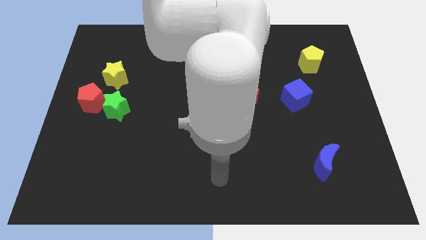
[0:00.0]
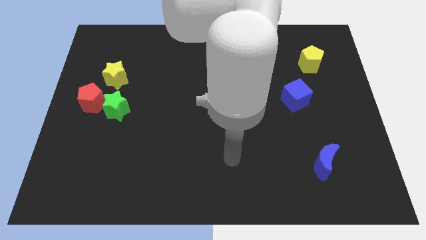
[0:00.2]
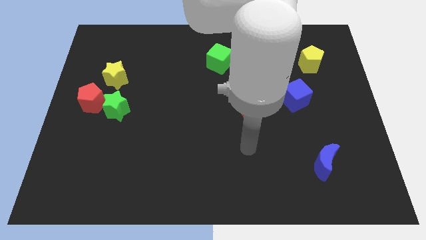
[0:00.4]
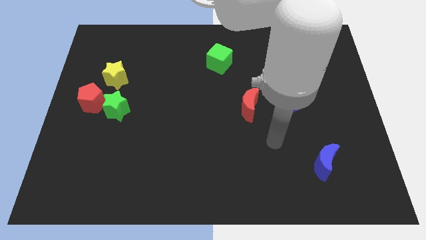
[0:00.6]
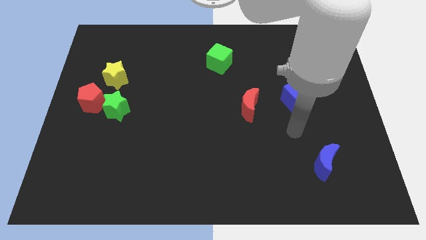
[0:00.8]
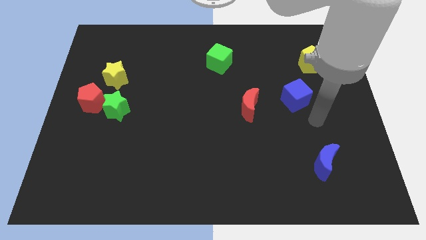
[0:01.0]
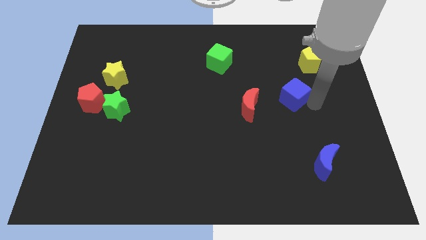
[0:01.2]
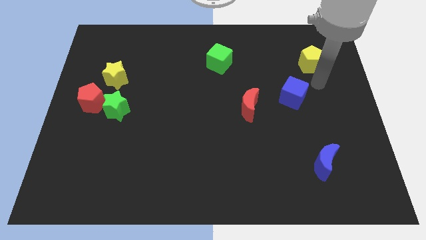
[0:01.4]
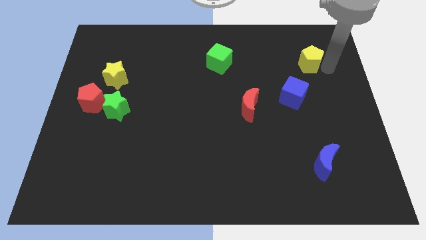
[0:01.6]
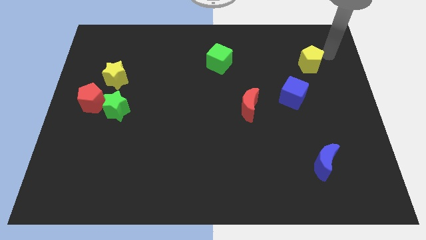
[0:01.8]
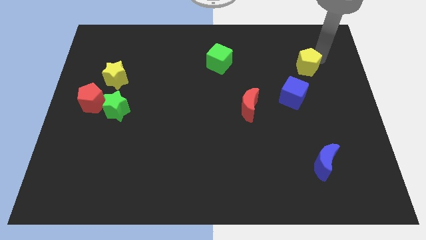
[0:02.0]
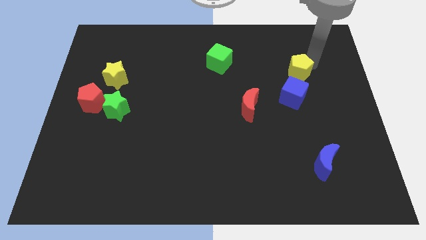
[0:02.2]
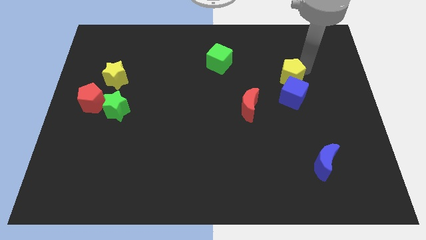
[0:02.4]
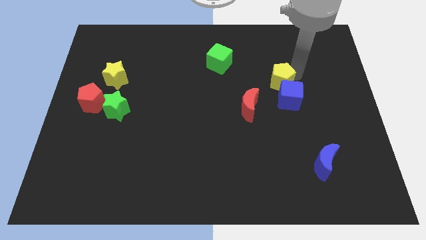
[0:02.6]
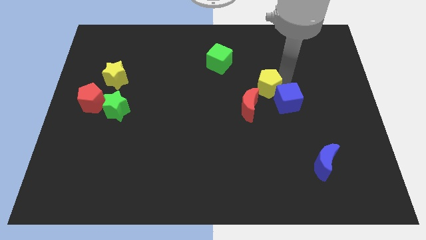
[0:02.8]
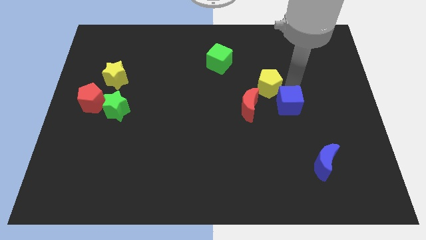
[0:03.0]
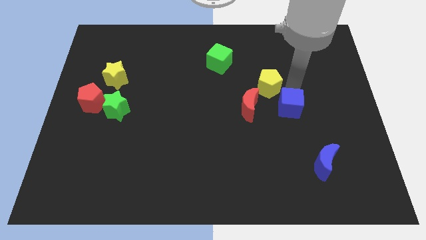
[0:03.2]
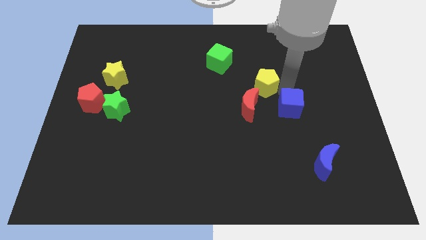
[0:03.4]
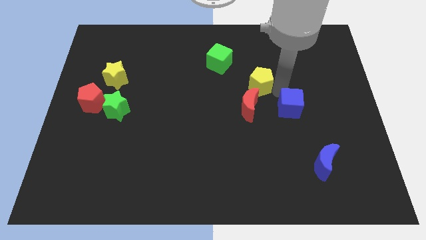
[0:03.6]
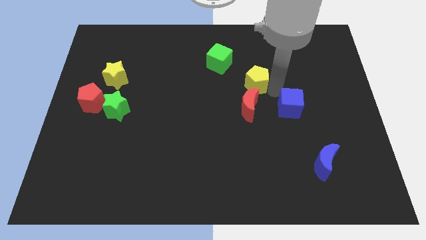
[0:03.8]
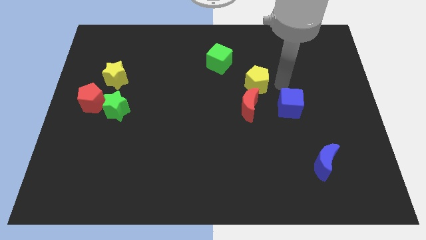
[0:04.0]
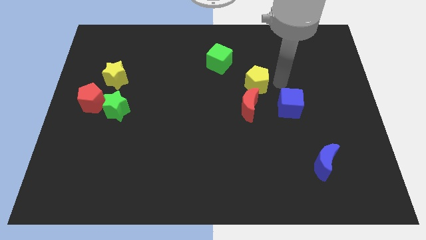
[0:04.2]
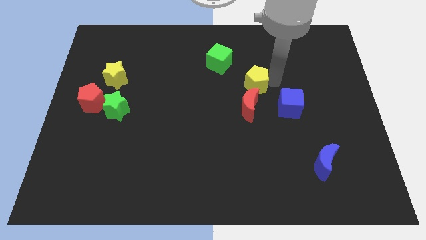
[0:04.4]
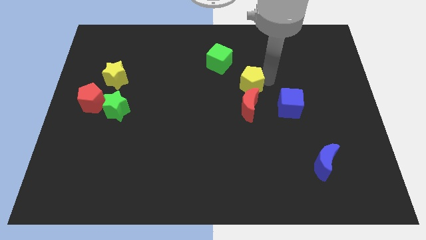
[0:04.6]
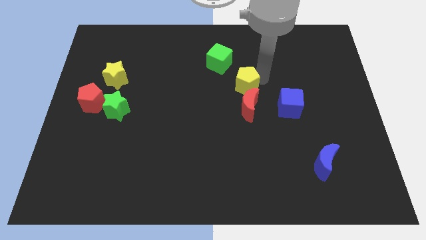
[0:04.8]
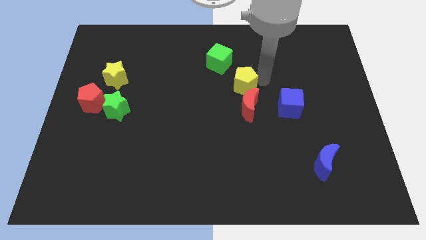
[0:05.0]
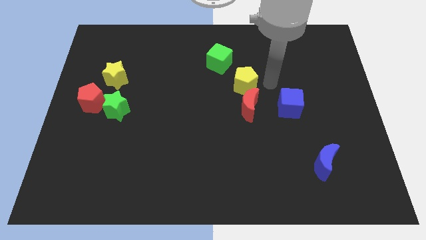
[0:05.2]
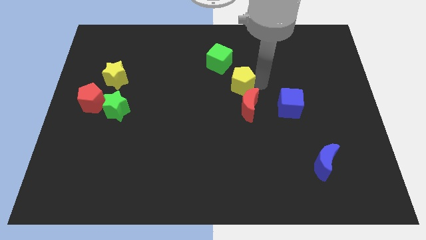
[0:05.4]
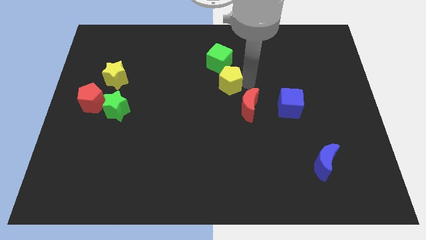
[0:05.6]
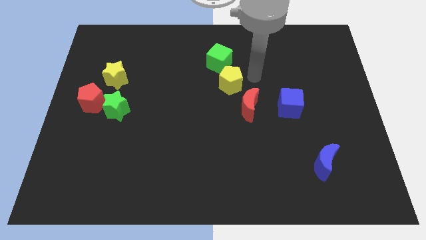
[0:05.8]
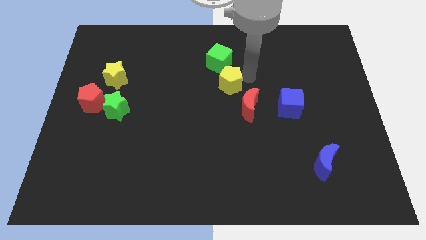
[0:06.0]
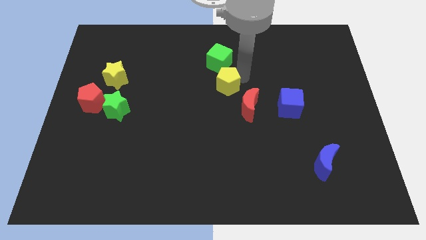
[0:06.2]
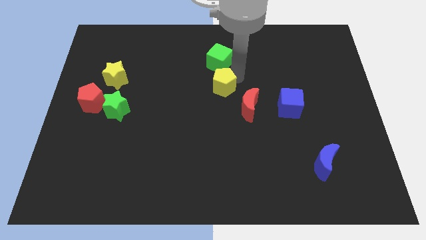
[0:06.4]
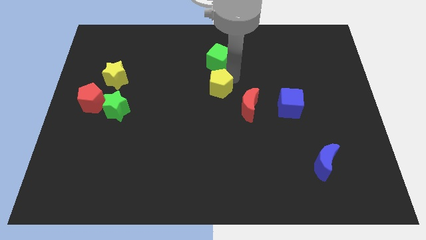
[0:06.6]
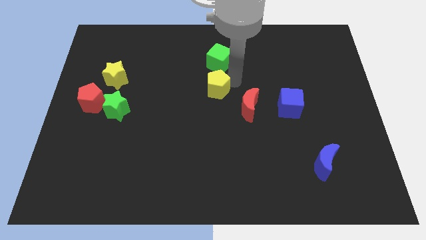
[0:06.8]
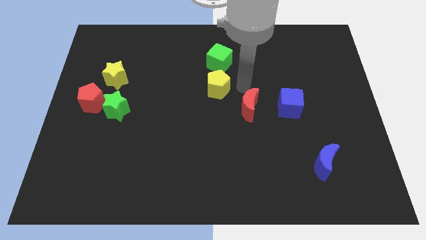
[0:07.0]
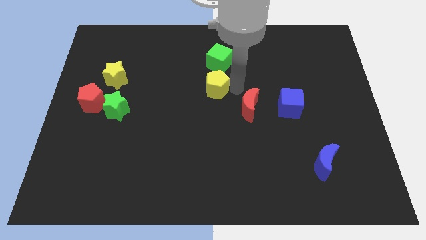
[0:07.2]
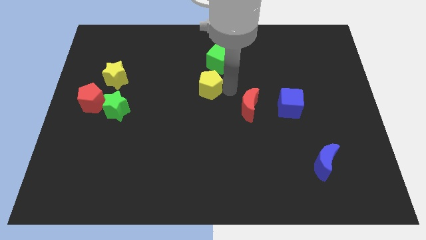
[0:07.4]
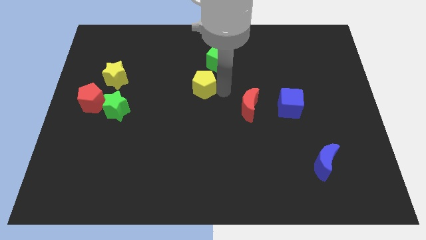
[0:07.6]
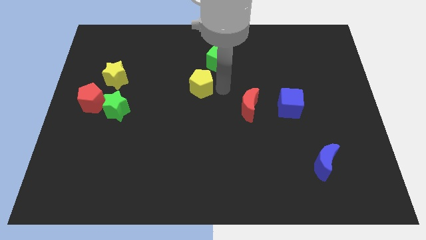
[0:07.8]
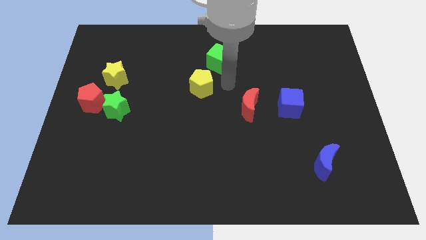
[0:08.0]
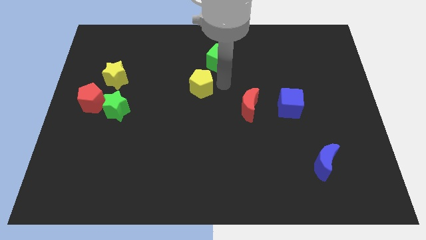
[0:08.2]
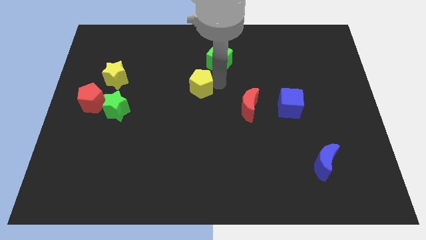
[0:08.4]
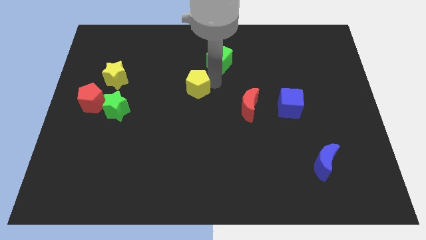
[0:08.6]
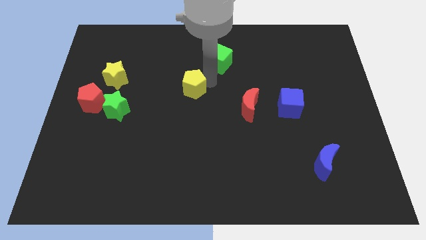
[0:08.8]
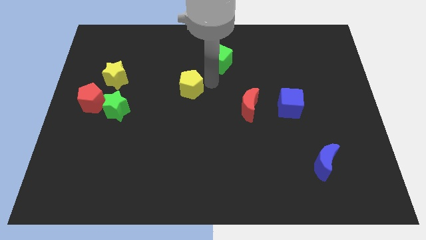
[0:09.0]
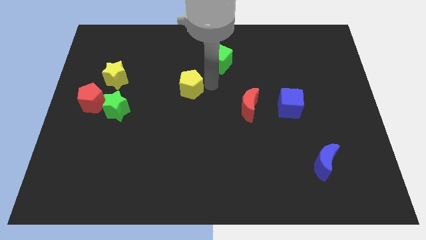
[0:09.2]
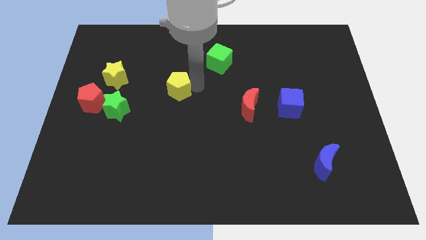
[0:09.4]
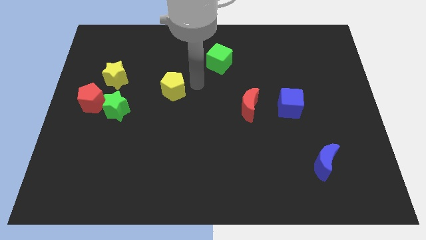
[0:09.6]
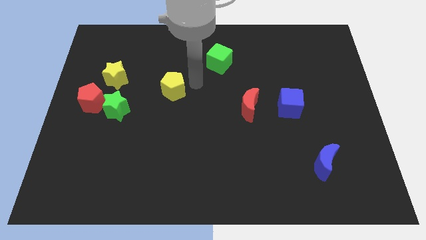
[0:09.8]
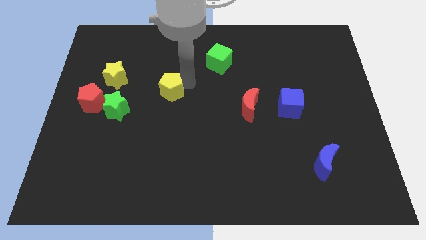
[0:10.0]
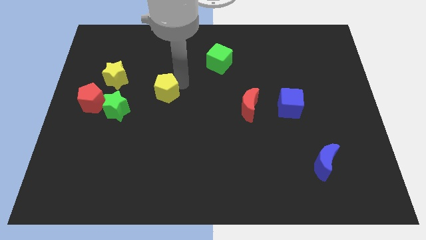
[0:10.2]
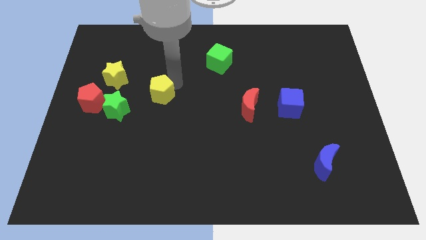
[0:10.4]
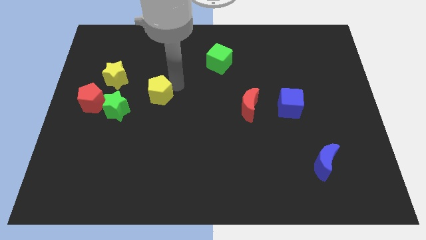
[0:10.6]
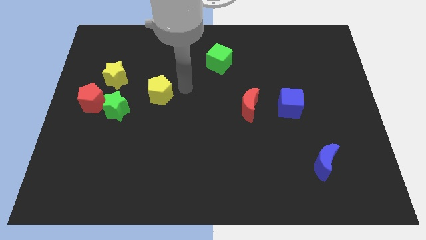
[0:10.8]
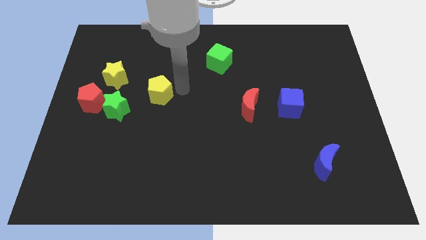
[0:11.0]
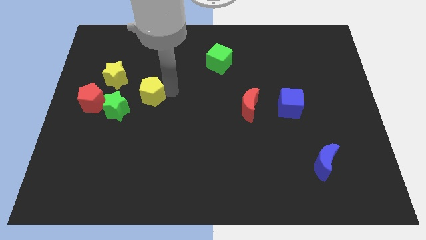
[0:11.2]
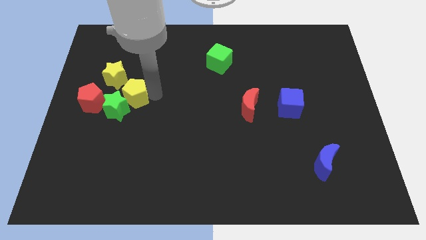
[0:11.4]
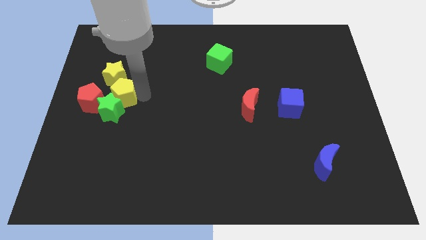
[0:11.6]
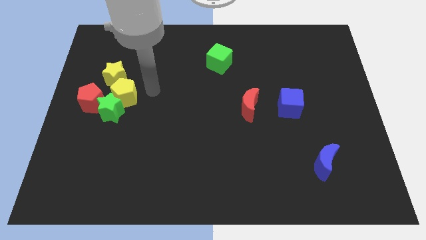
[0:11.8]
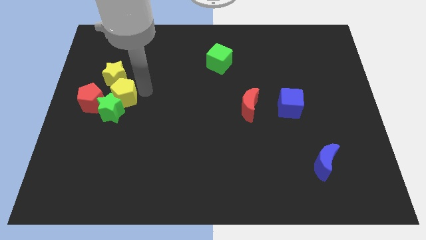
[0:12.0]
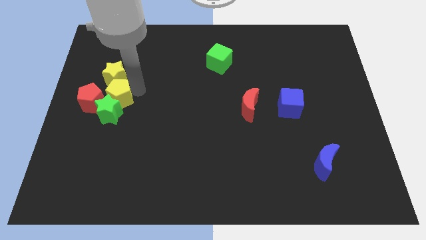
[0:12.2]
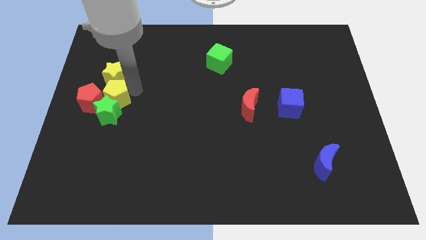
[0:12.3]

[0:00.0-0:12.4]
slide the yellow pentagon next to the red pentagon

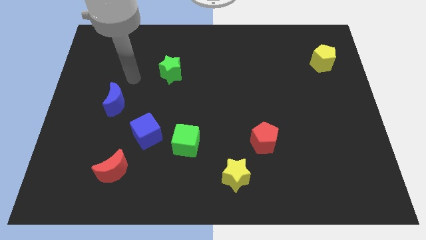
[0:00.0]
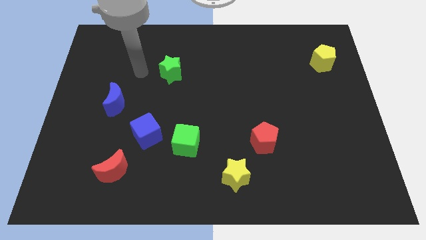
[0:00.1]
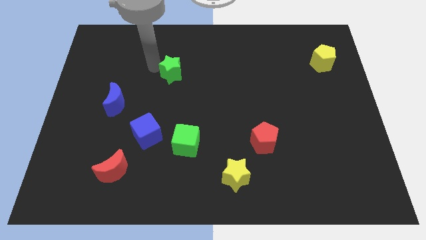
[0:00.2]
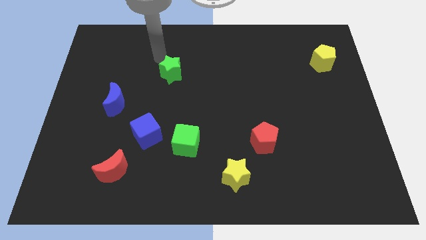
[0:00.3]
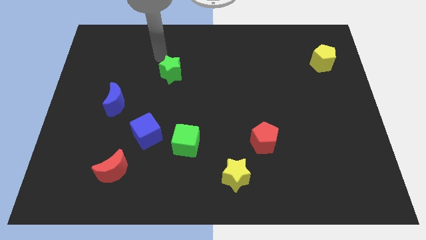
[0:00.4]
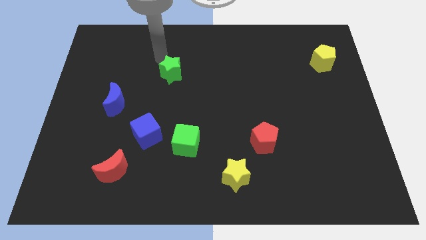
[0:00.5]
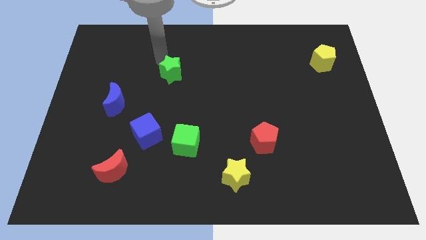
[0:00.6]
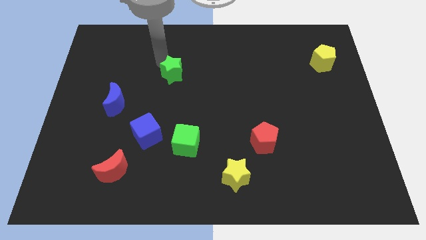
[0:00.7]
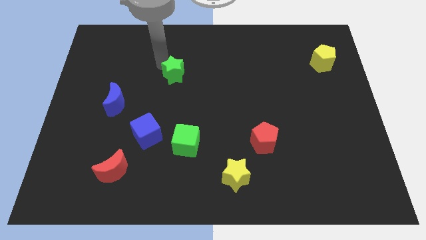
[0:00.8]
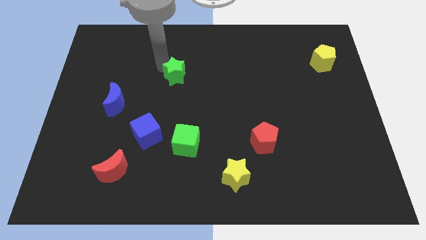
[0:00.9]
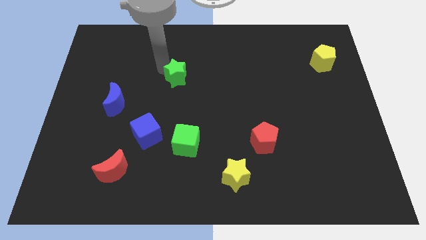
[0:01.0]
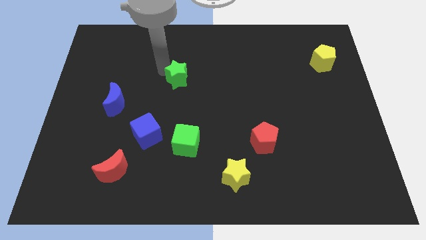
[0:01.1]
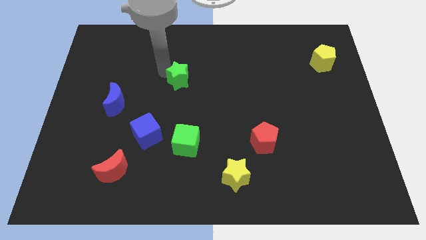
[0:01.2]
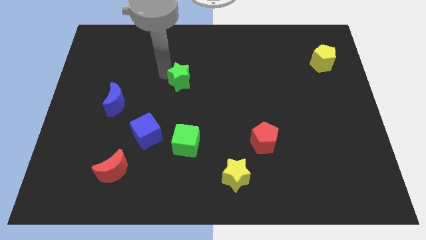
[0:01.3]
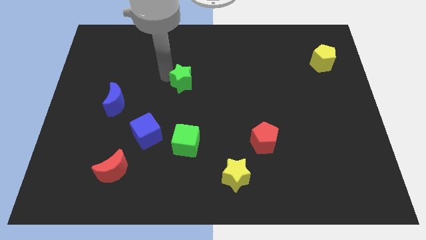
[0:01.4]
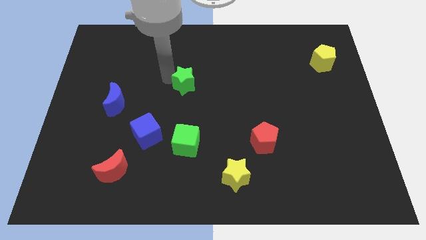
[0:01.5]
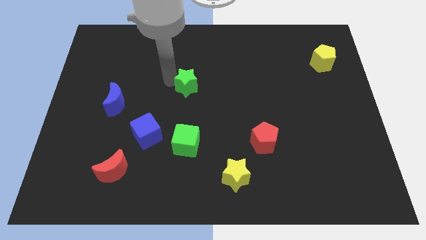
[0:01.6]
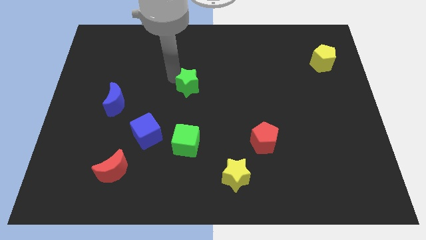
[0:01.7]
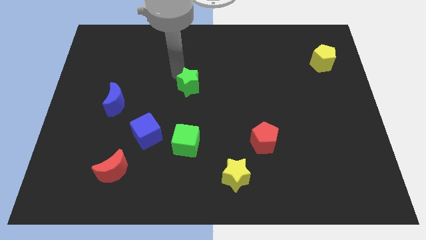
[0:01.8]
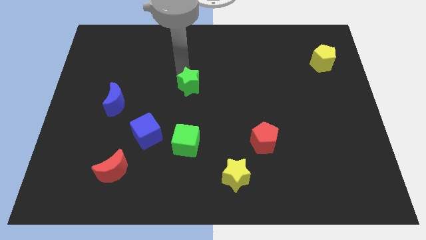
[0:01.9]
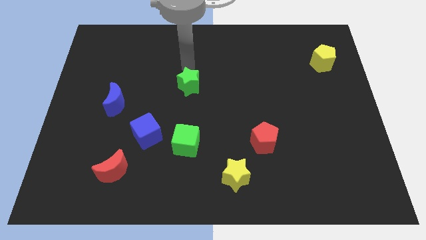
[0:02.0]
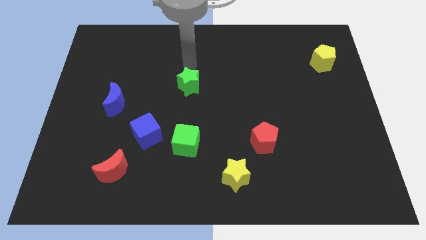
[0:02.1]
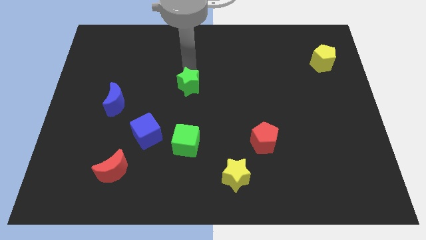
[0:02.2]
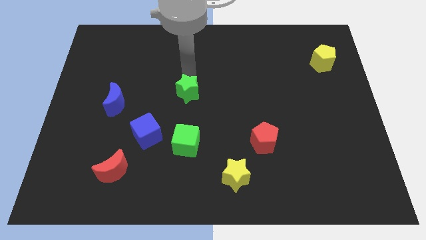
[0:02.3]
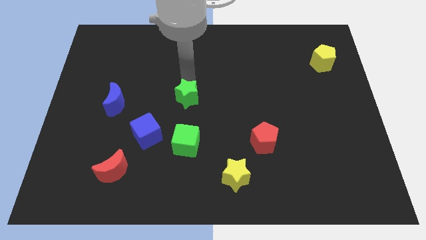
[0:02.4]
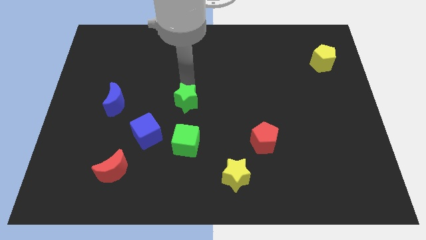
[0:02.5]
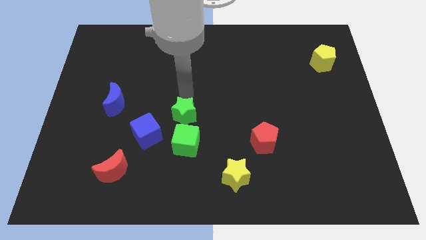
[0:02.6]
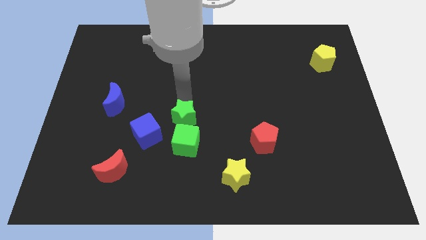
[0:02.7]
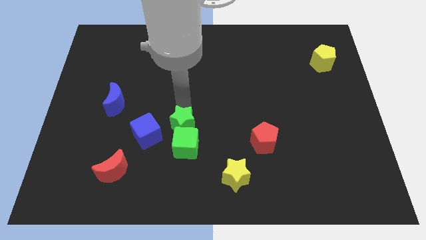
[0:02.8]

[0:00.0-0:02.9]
move the green star to the green cube
